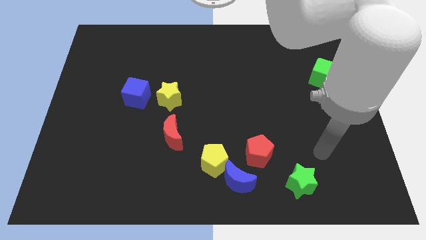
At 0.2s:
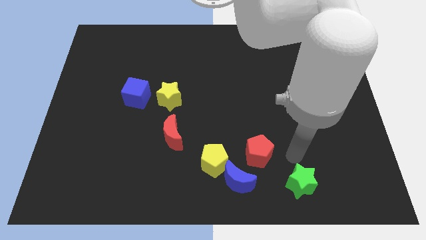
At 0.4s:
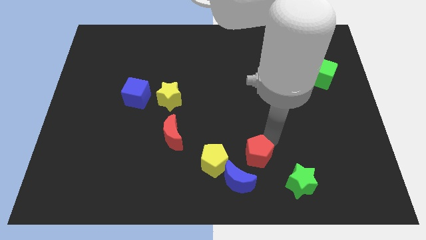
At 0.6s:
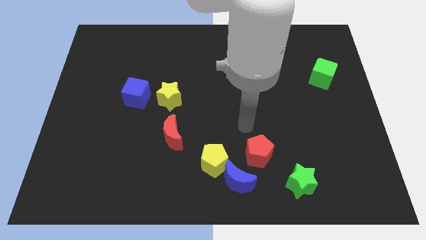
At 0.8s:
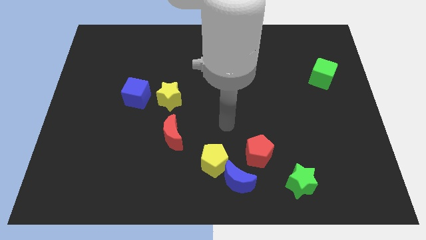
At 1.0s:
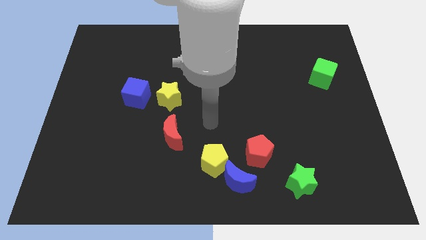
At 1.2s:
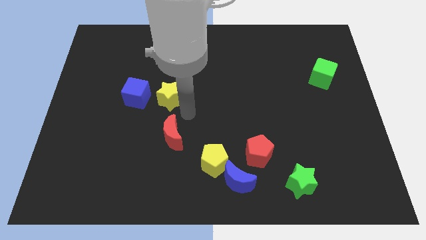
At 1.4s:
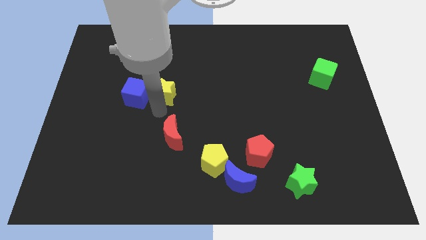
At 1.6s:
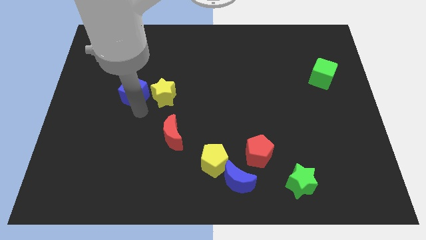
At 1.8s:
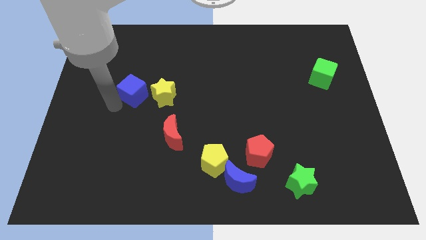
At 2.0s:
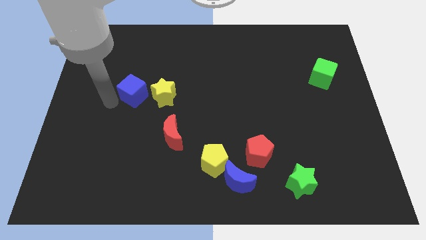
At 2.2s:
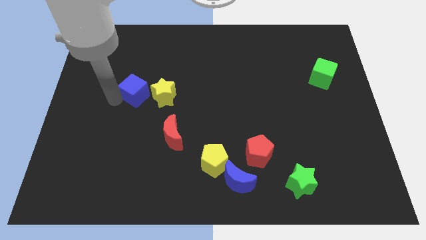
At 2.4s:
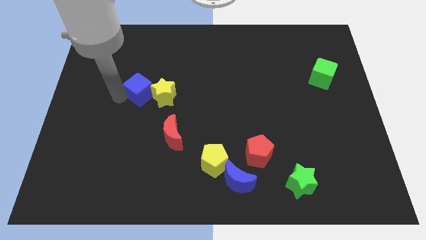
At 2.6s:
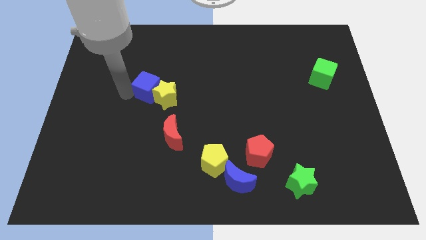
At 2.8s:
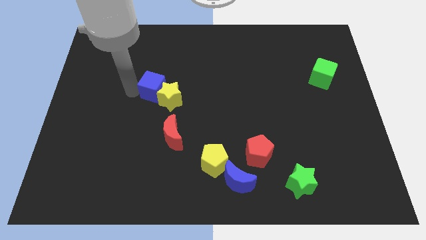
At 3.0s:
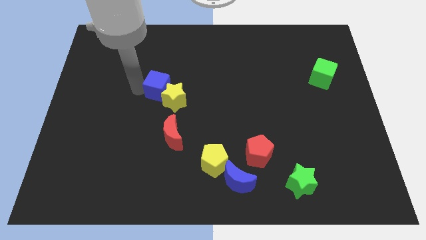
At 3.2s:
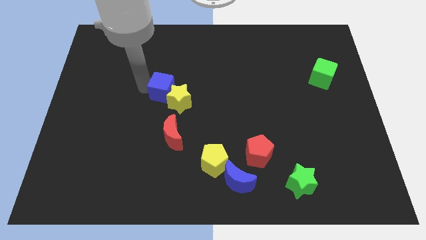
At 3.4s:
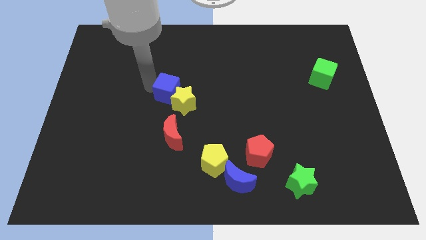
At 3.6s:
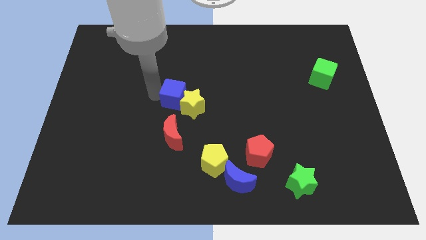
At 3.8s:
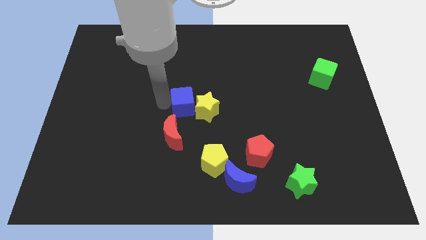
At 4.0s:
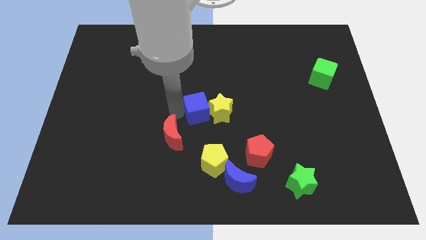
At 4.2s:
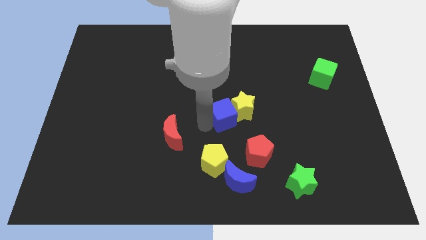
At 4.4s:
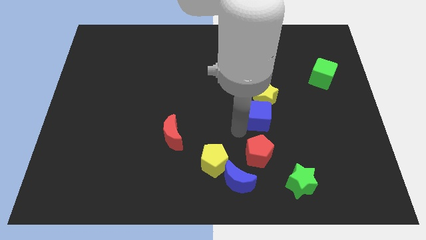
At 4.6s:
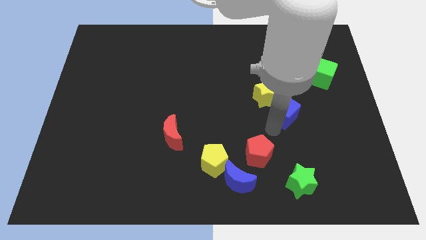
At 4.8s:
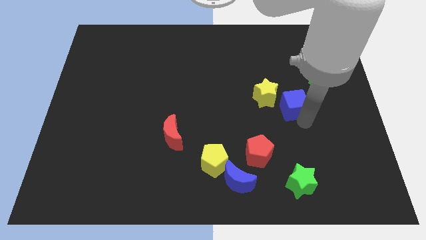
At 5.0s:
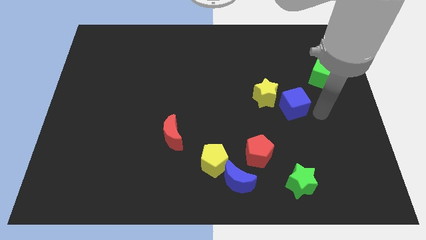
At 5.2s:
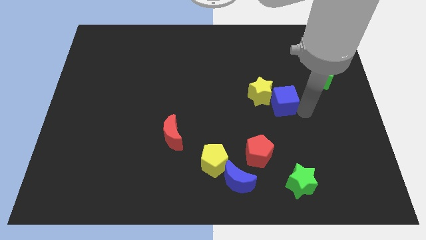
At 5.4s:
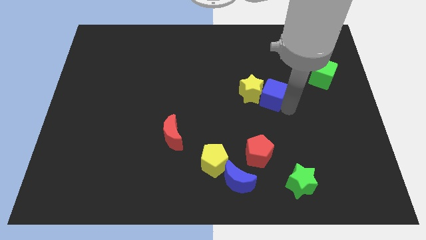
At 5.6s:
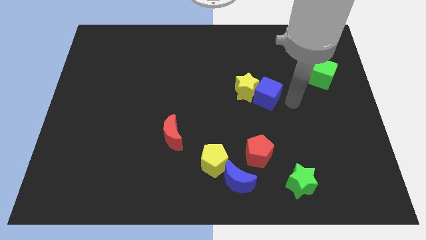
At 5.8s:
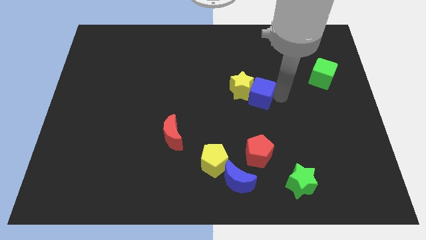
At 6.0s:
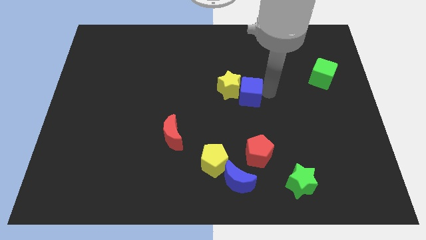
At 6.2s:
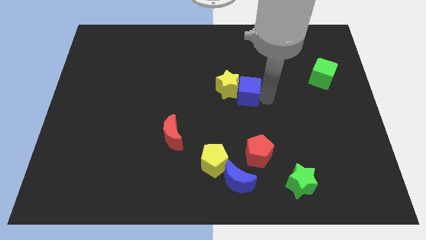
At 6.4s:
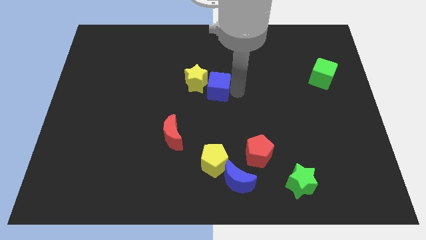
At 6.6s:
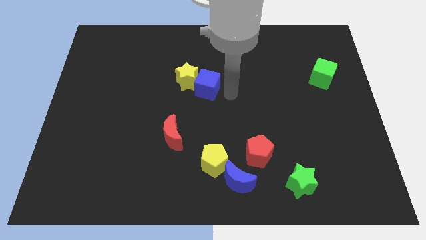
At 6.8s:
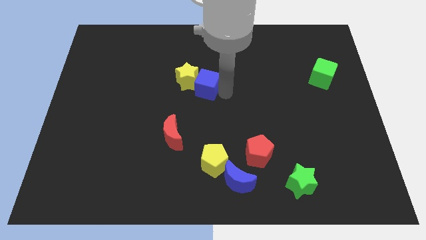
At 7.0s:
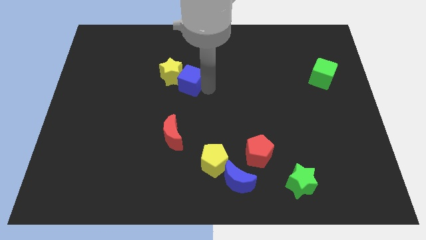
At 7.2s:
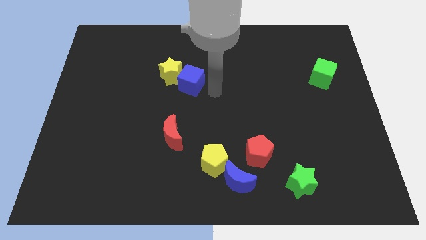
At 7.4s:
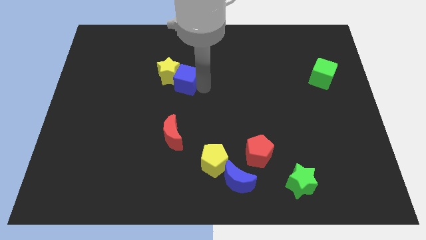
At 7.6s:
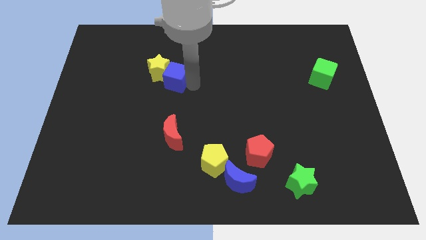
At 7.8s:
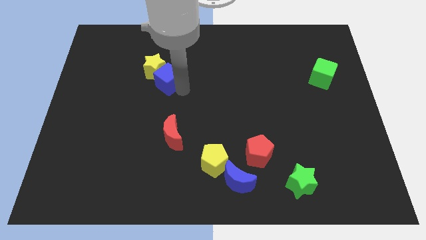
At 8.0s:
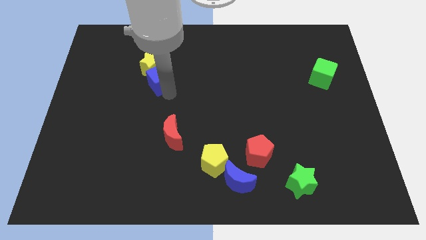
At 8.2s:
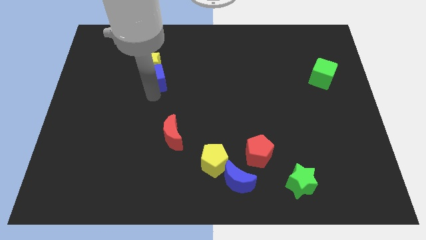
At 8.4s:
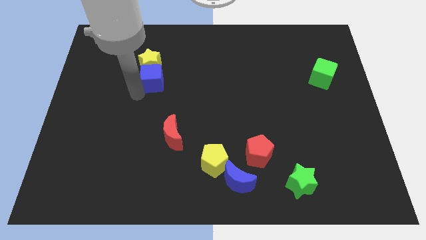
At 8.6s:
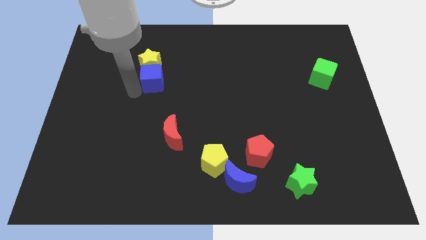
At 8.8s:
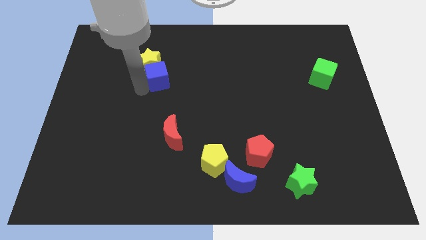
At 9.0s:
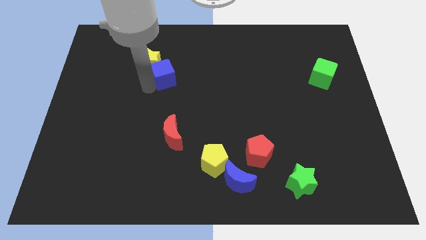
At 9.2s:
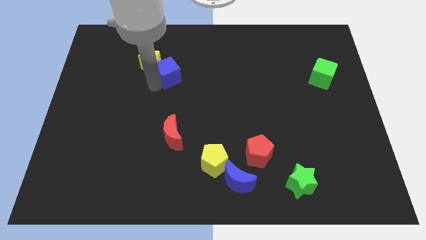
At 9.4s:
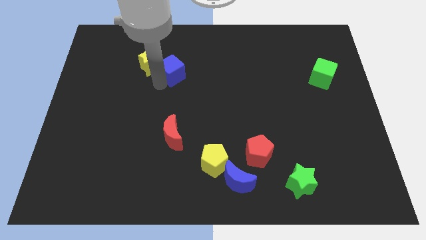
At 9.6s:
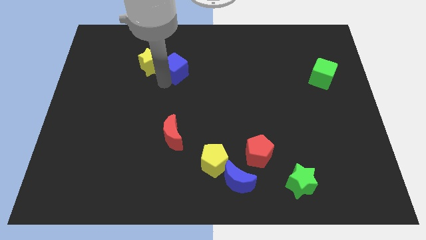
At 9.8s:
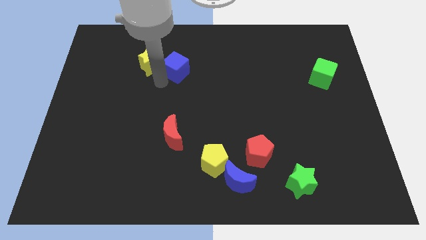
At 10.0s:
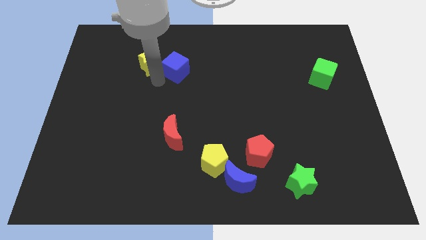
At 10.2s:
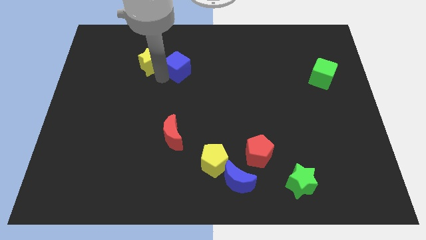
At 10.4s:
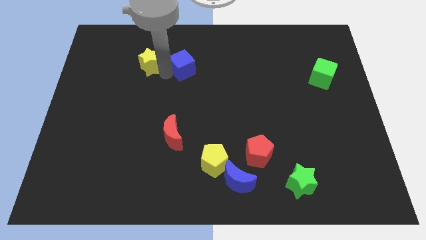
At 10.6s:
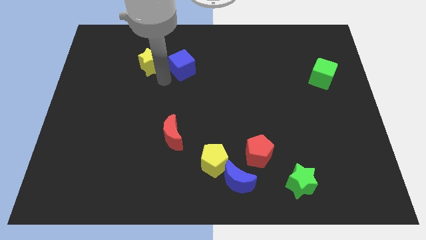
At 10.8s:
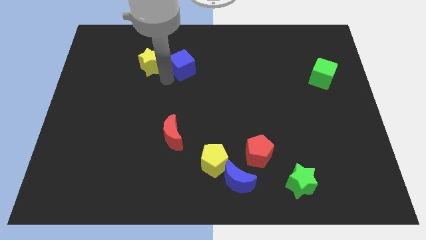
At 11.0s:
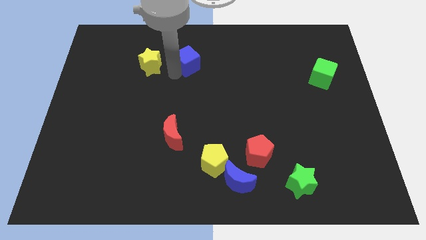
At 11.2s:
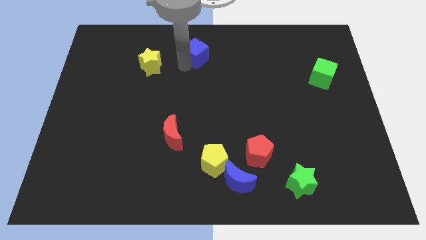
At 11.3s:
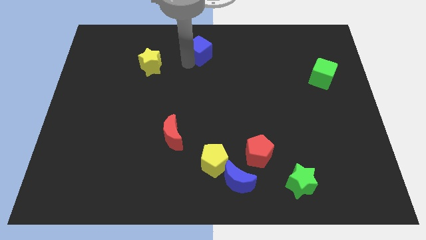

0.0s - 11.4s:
push the blue cube to the top

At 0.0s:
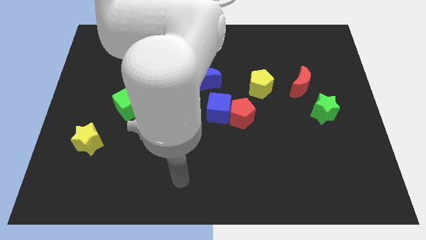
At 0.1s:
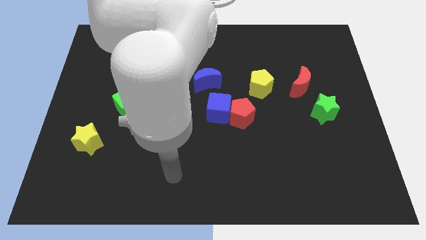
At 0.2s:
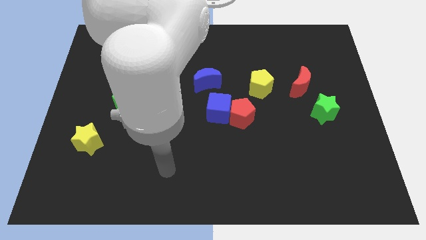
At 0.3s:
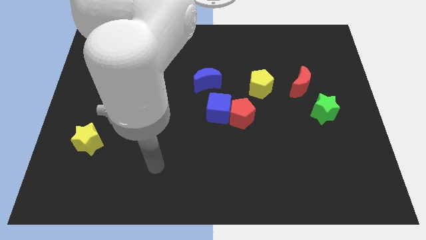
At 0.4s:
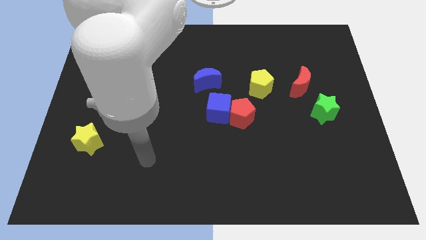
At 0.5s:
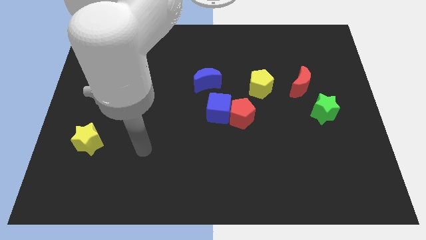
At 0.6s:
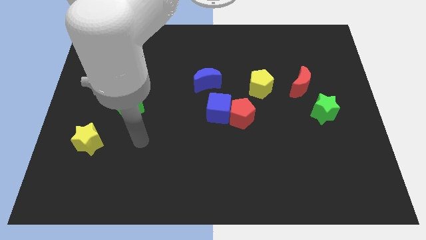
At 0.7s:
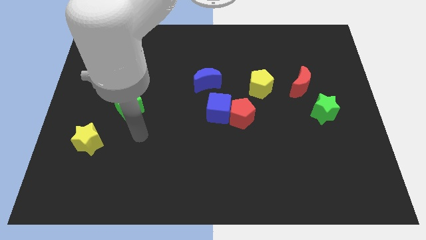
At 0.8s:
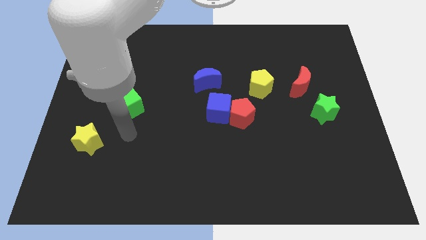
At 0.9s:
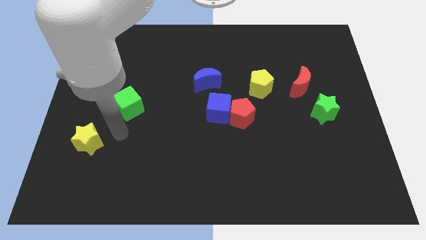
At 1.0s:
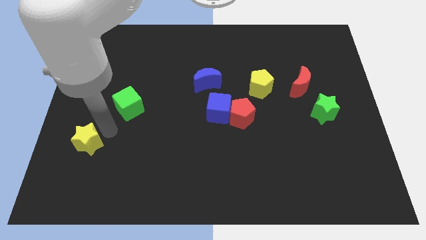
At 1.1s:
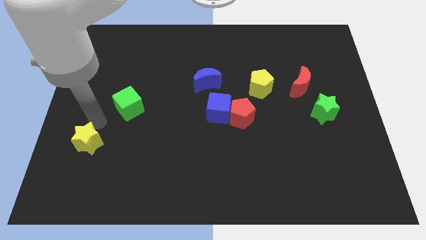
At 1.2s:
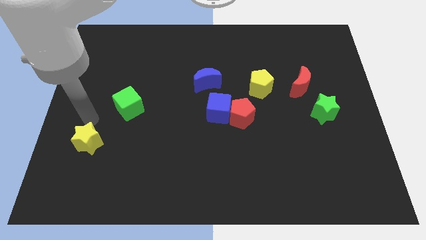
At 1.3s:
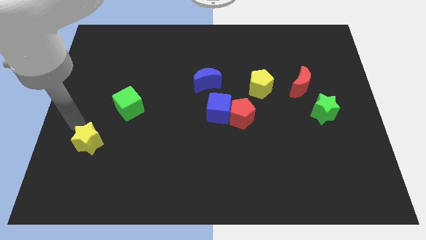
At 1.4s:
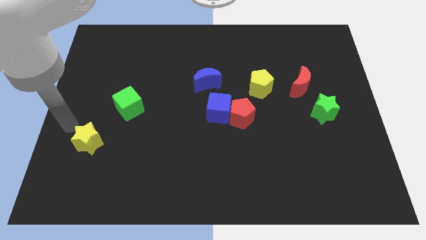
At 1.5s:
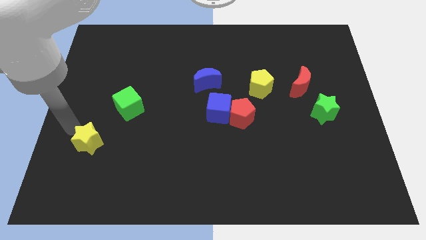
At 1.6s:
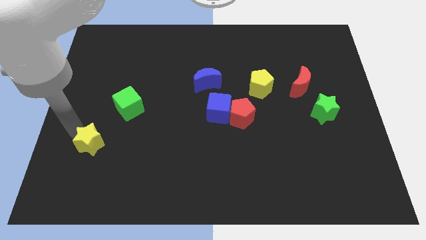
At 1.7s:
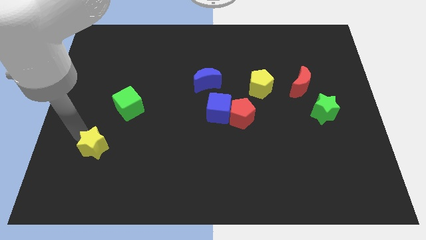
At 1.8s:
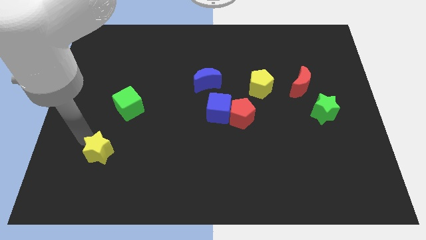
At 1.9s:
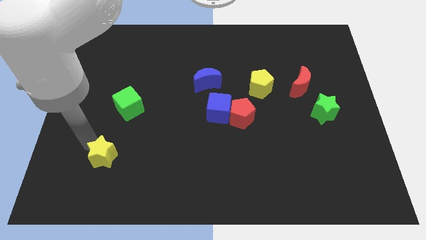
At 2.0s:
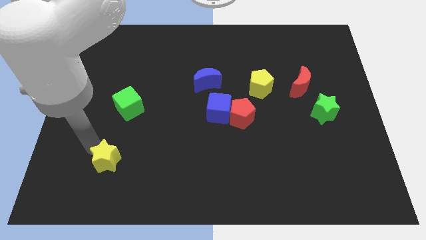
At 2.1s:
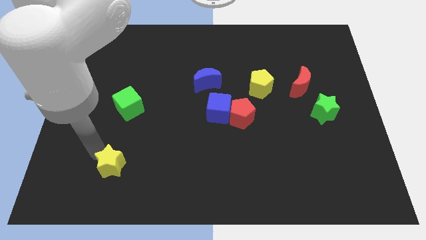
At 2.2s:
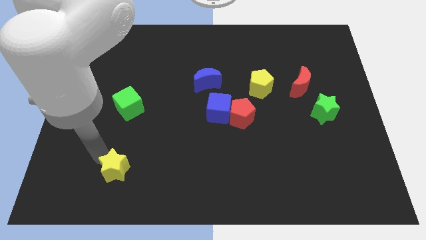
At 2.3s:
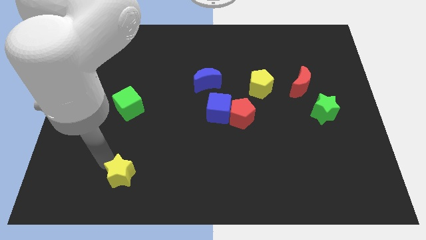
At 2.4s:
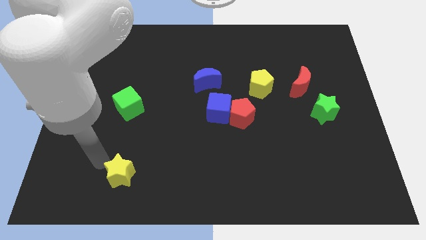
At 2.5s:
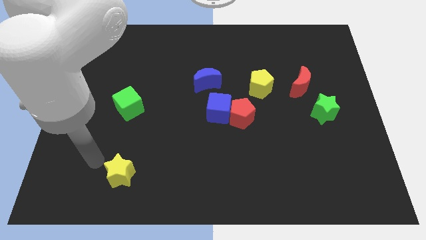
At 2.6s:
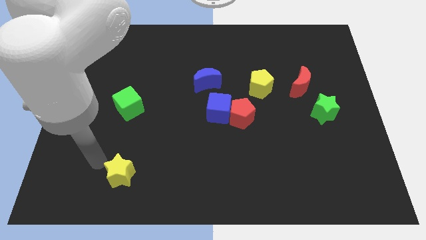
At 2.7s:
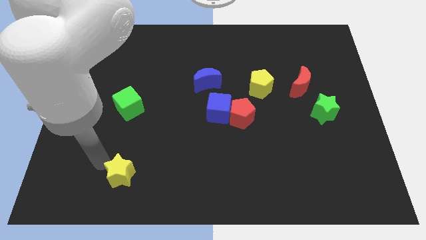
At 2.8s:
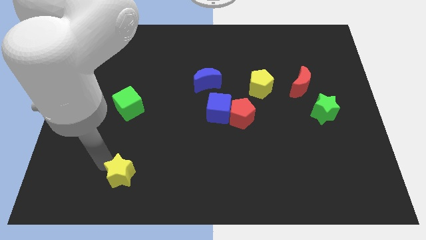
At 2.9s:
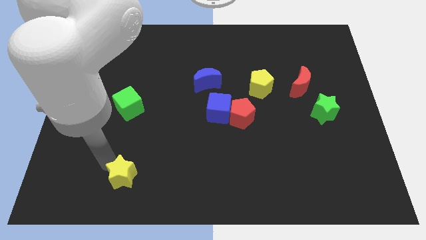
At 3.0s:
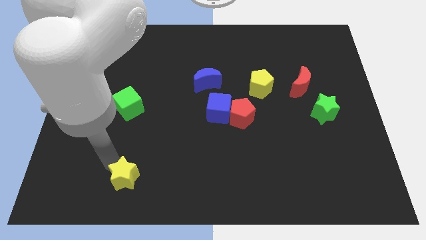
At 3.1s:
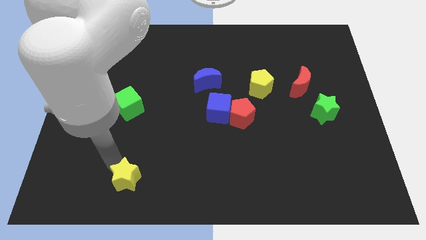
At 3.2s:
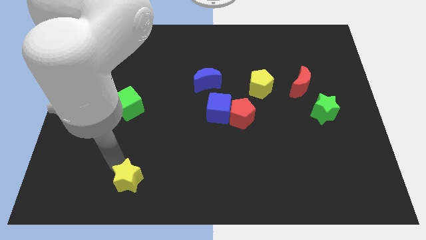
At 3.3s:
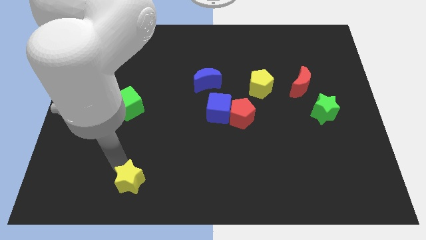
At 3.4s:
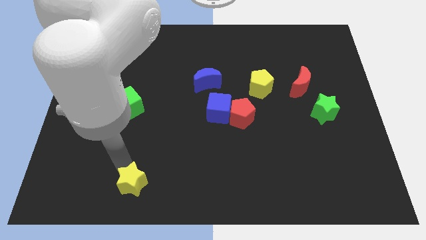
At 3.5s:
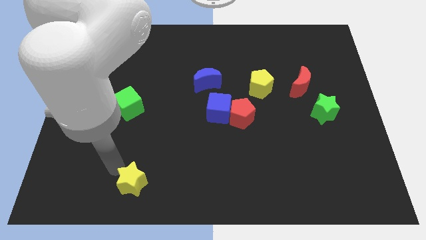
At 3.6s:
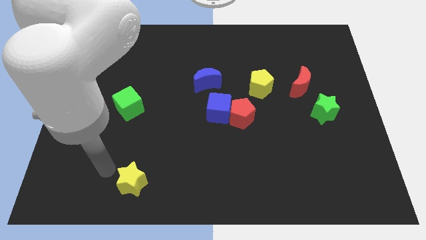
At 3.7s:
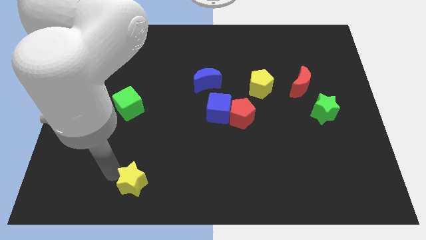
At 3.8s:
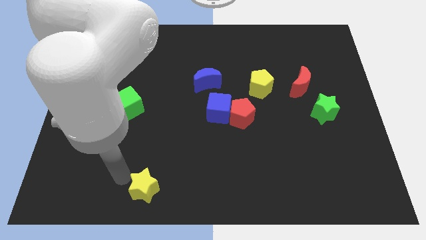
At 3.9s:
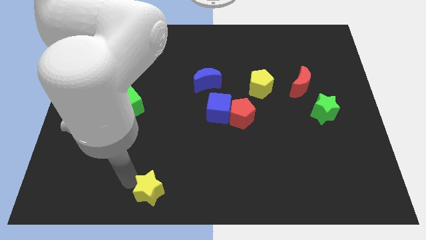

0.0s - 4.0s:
slide the yellow star to the bottom side
